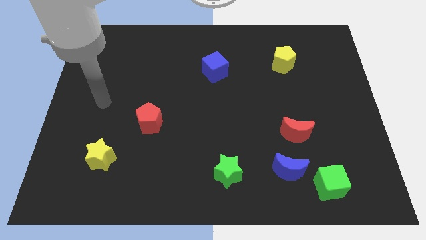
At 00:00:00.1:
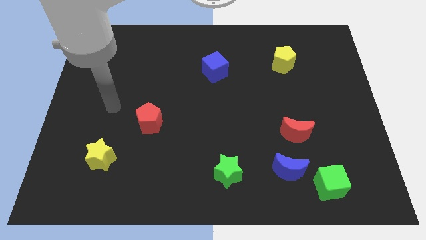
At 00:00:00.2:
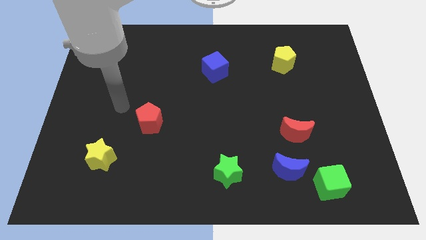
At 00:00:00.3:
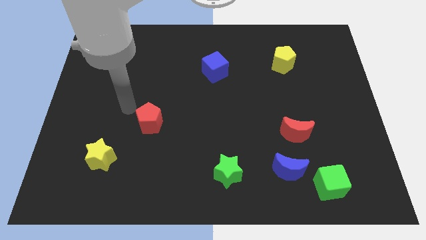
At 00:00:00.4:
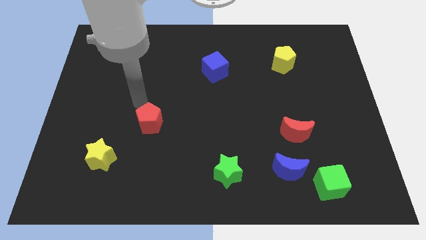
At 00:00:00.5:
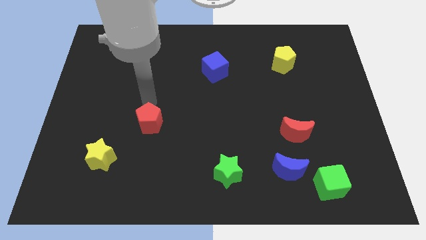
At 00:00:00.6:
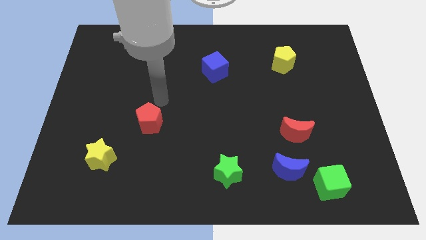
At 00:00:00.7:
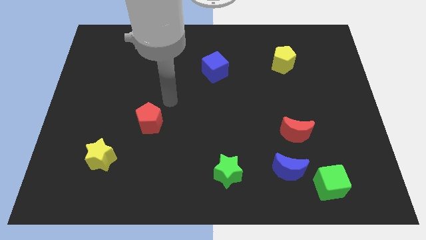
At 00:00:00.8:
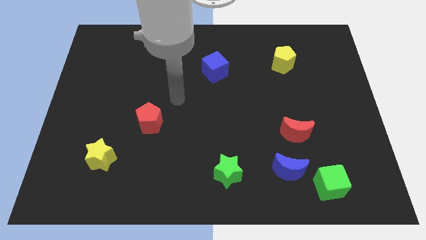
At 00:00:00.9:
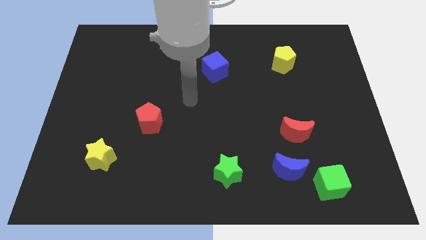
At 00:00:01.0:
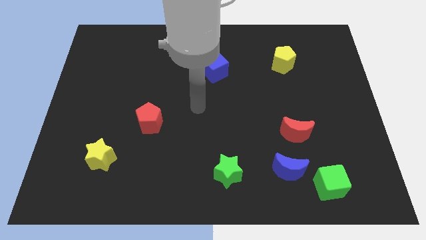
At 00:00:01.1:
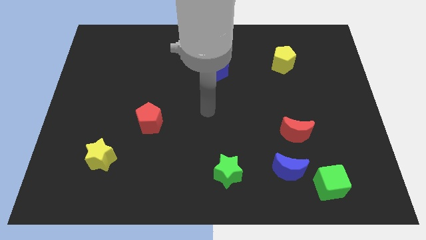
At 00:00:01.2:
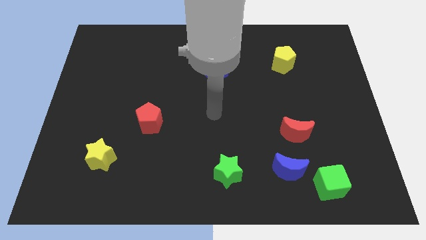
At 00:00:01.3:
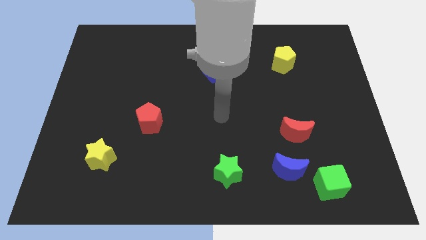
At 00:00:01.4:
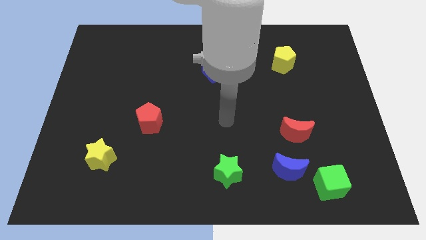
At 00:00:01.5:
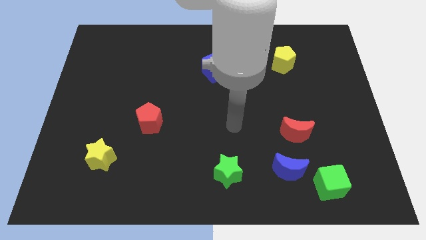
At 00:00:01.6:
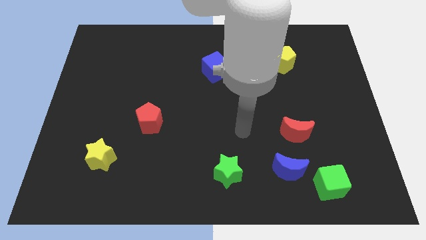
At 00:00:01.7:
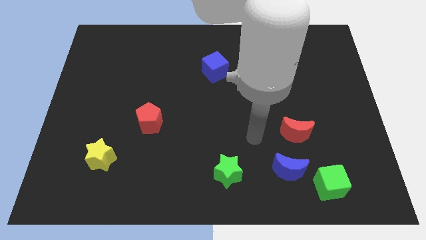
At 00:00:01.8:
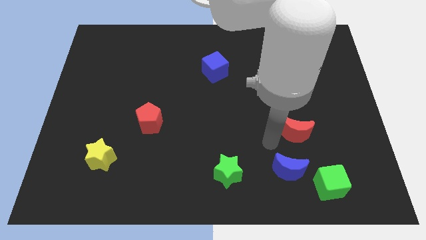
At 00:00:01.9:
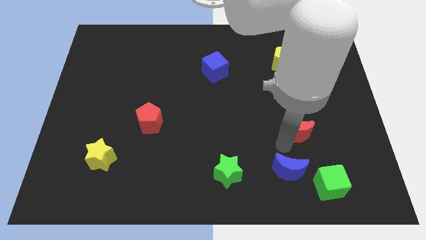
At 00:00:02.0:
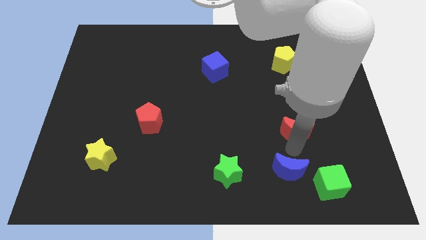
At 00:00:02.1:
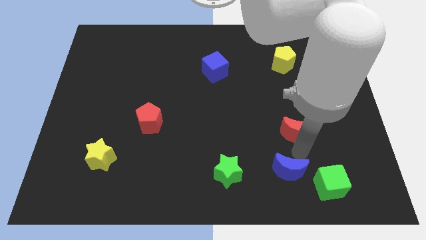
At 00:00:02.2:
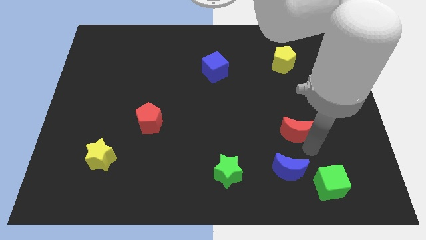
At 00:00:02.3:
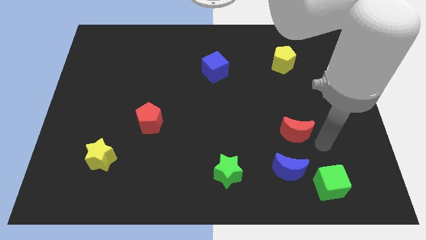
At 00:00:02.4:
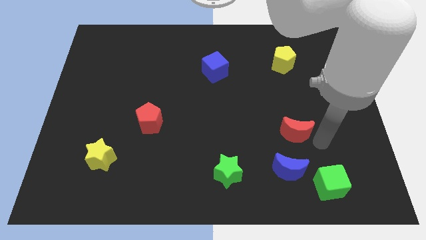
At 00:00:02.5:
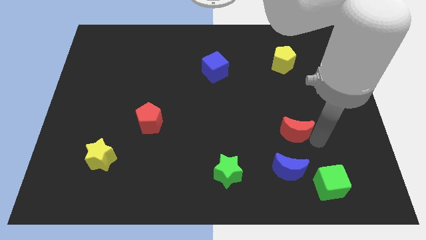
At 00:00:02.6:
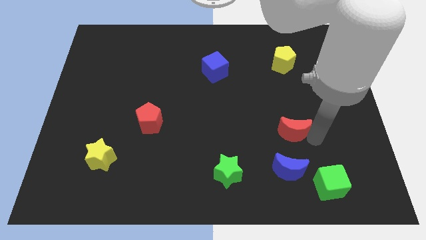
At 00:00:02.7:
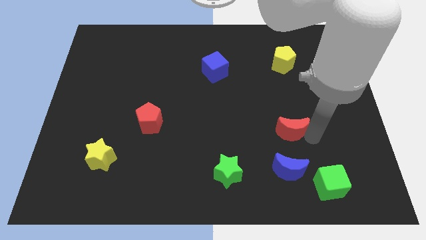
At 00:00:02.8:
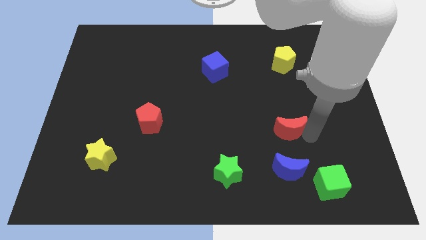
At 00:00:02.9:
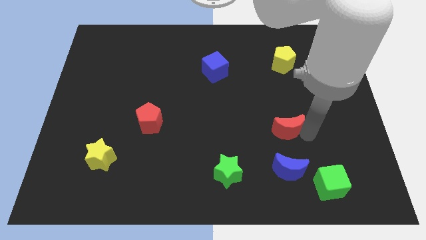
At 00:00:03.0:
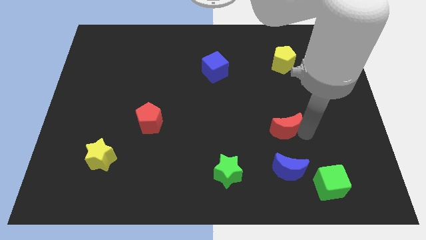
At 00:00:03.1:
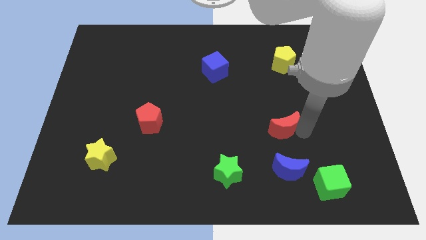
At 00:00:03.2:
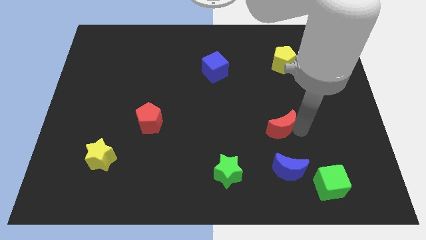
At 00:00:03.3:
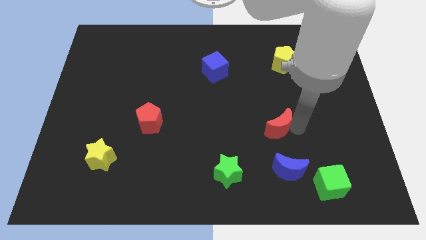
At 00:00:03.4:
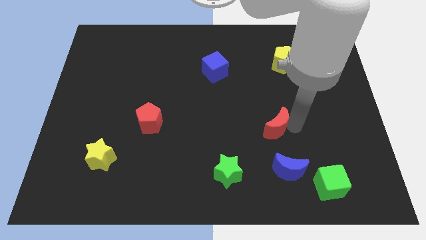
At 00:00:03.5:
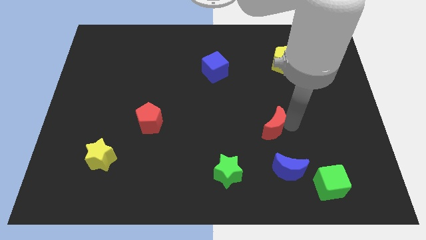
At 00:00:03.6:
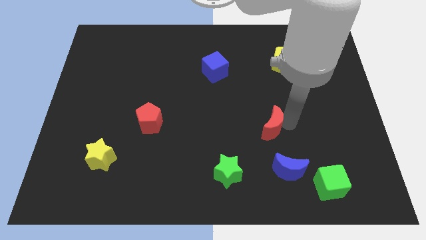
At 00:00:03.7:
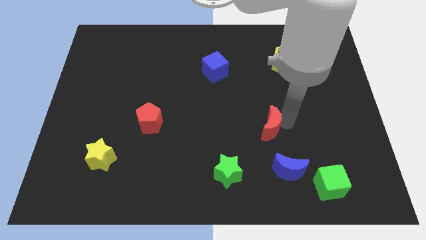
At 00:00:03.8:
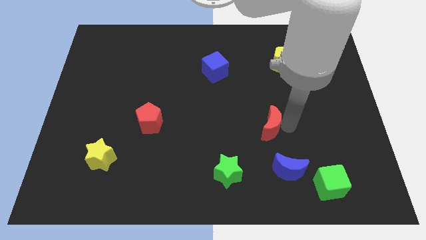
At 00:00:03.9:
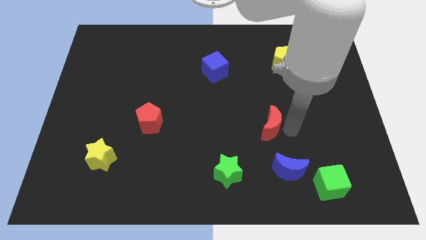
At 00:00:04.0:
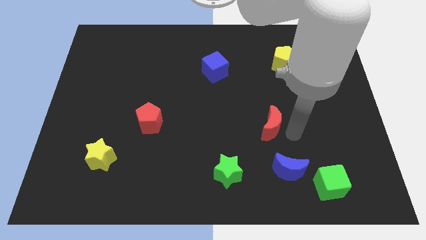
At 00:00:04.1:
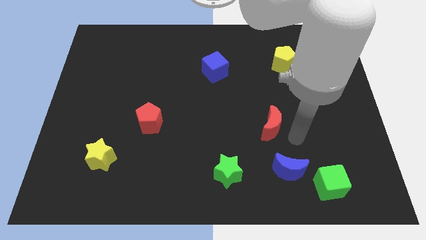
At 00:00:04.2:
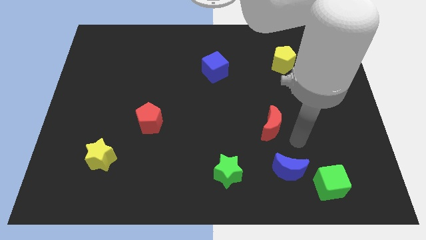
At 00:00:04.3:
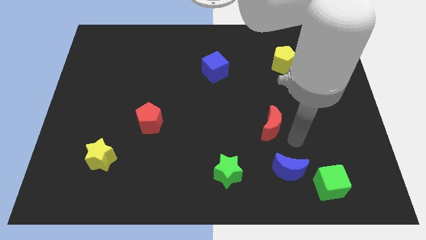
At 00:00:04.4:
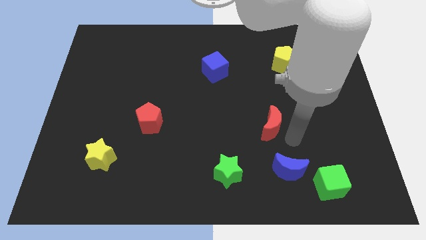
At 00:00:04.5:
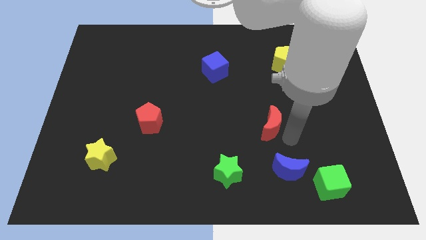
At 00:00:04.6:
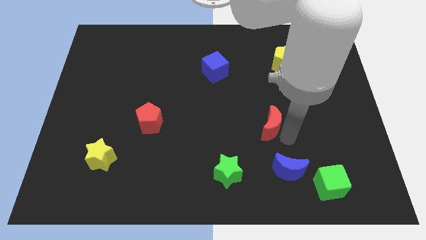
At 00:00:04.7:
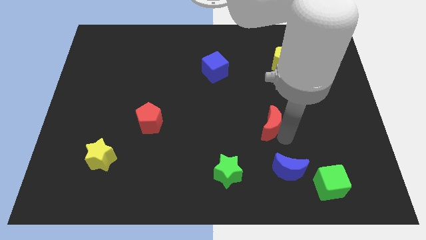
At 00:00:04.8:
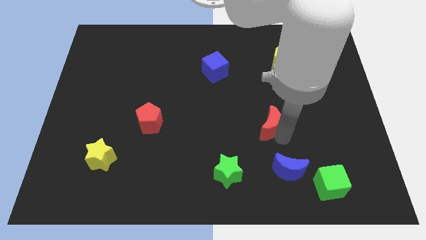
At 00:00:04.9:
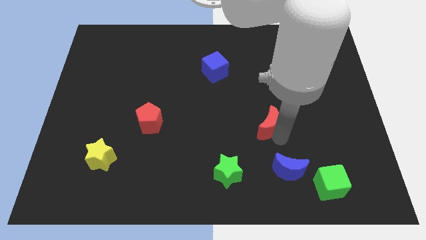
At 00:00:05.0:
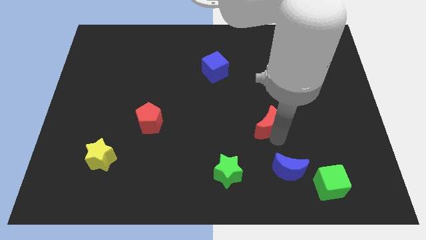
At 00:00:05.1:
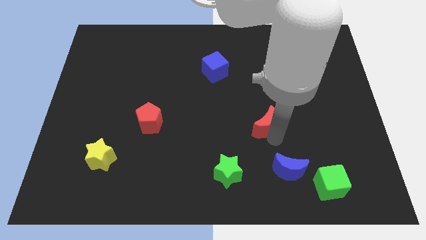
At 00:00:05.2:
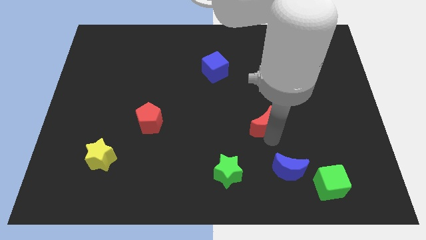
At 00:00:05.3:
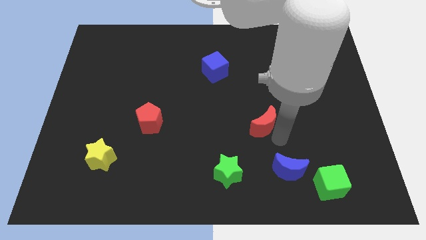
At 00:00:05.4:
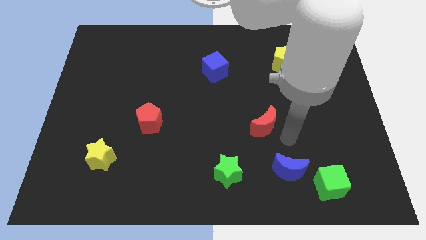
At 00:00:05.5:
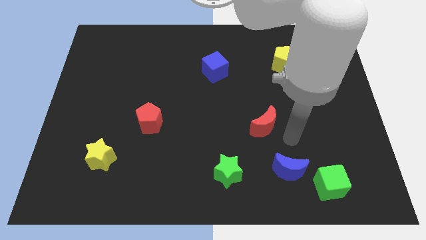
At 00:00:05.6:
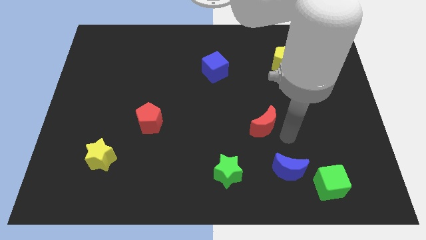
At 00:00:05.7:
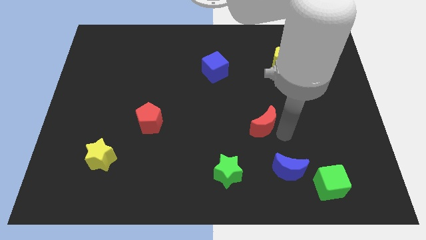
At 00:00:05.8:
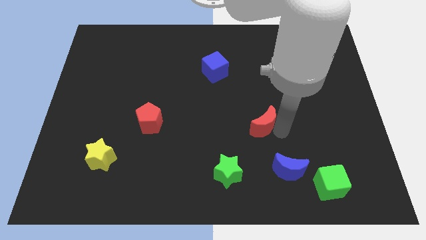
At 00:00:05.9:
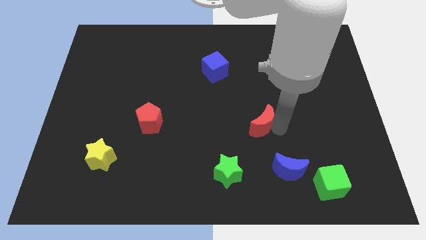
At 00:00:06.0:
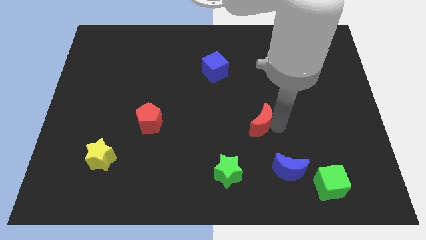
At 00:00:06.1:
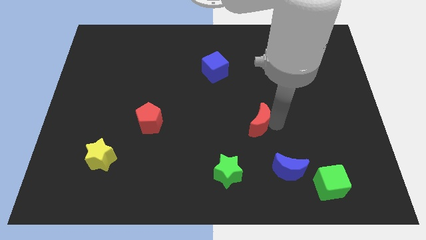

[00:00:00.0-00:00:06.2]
put the red moon to the middle
